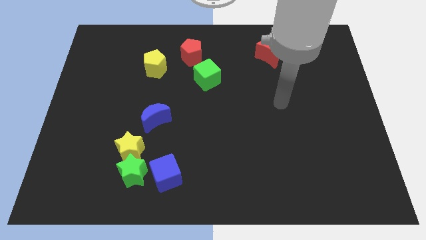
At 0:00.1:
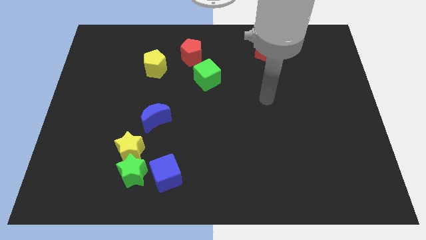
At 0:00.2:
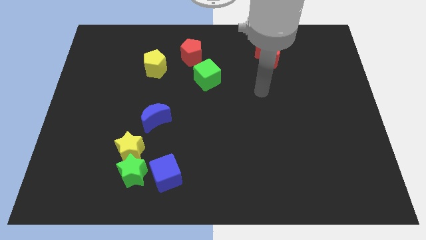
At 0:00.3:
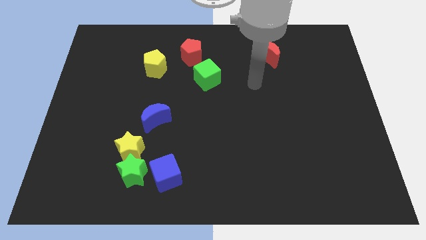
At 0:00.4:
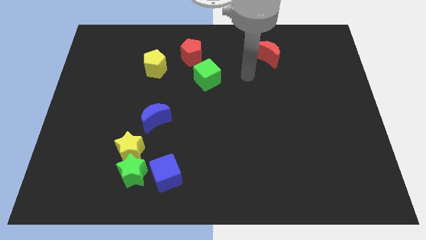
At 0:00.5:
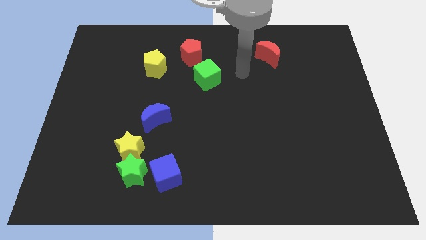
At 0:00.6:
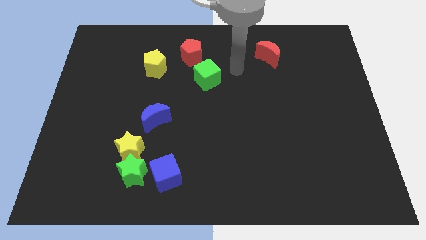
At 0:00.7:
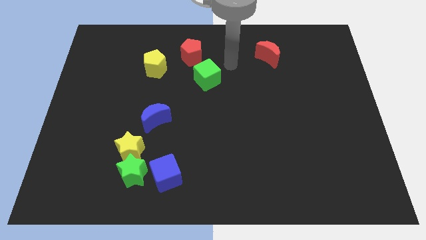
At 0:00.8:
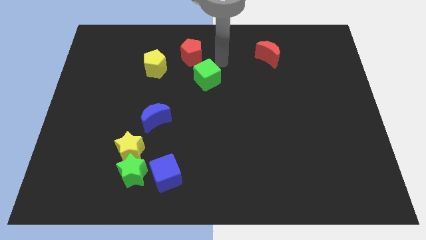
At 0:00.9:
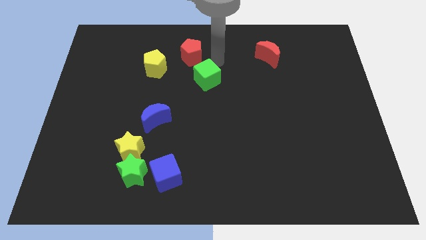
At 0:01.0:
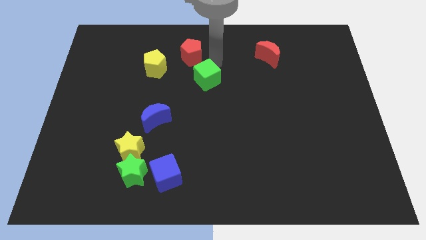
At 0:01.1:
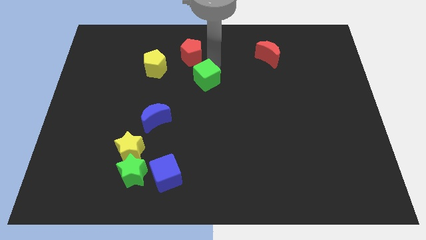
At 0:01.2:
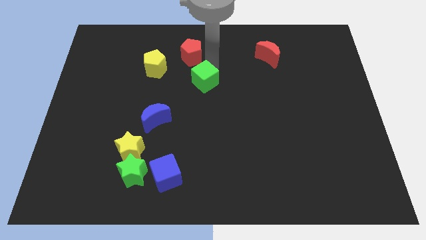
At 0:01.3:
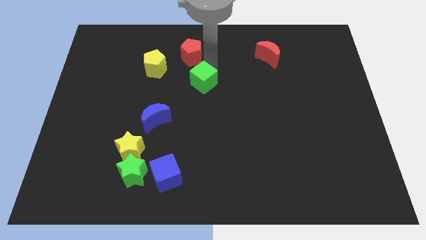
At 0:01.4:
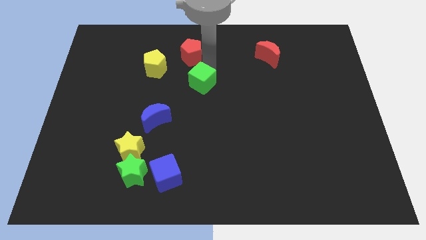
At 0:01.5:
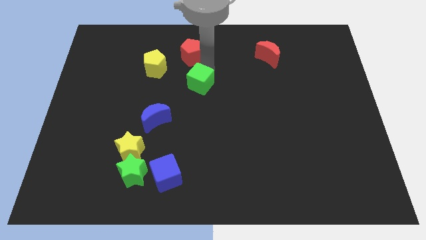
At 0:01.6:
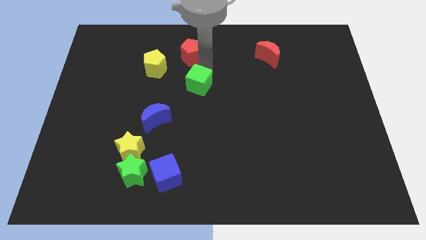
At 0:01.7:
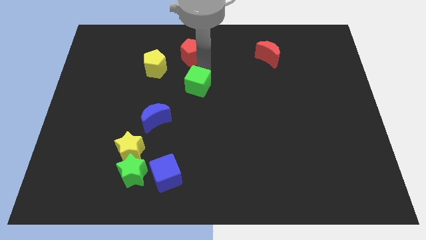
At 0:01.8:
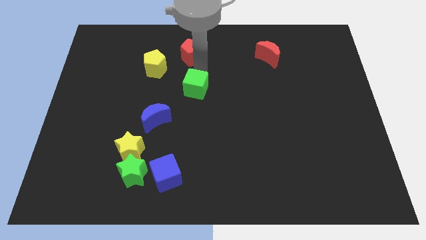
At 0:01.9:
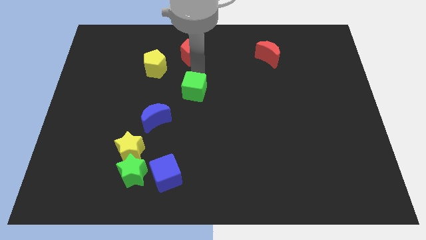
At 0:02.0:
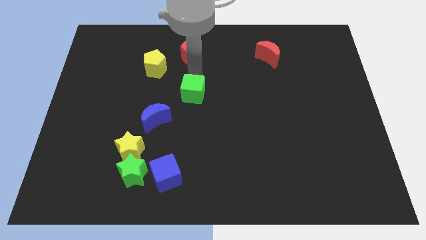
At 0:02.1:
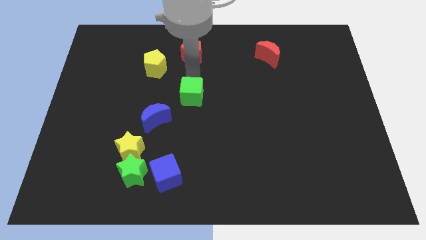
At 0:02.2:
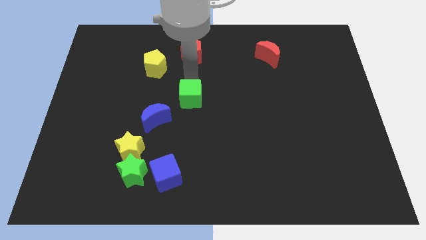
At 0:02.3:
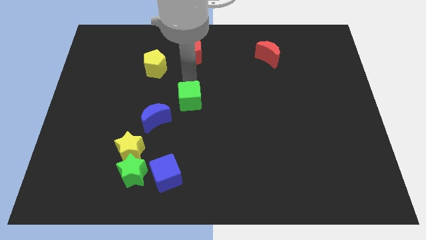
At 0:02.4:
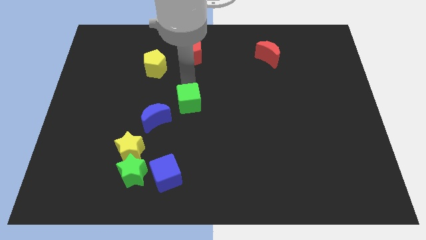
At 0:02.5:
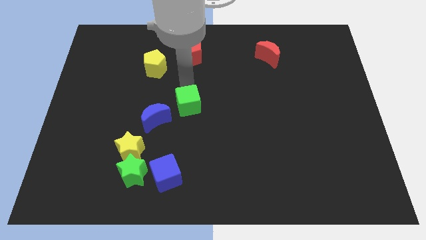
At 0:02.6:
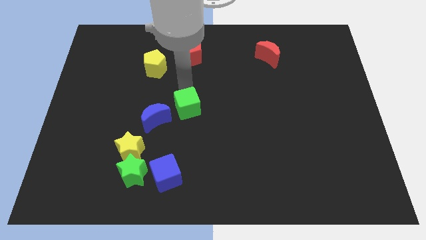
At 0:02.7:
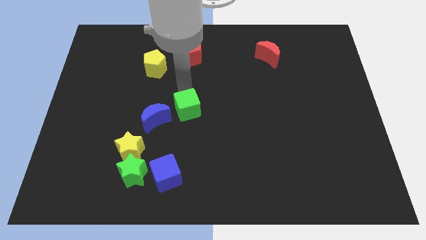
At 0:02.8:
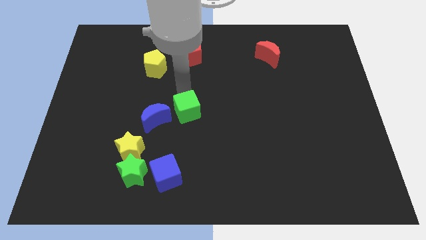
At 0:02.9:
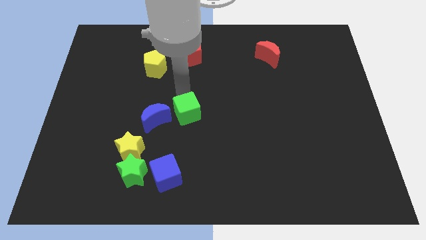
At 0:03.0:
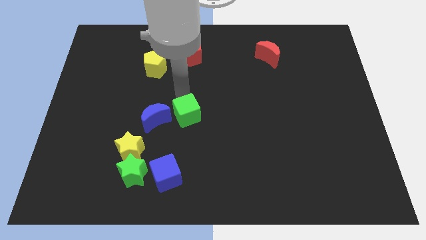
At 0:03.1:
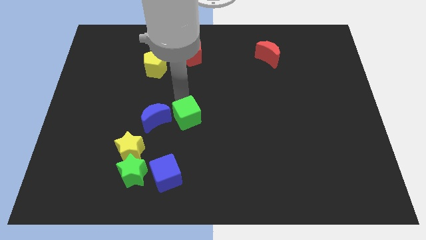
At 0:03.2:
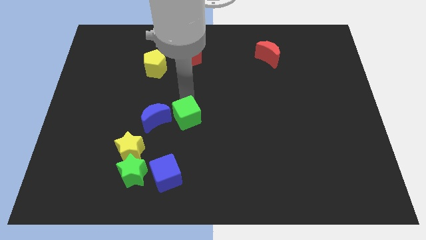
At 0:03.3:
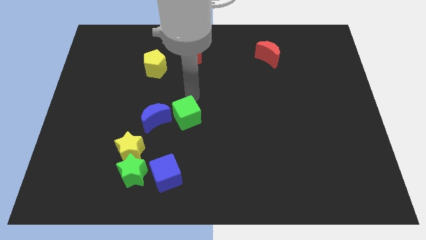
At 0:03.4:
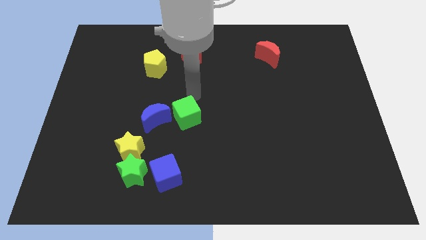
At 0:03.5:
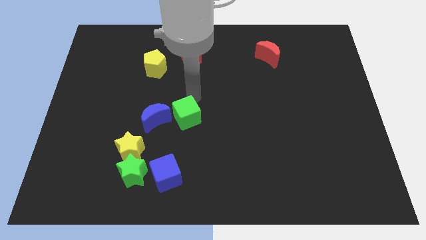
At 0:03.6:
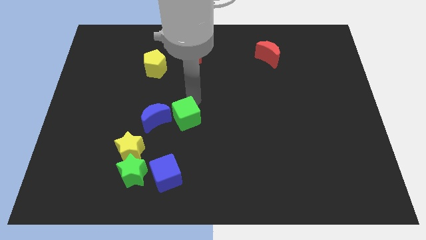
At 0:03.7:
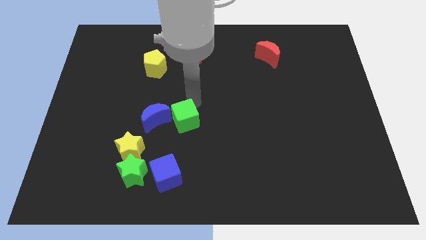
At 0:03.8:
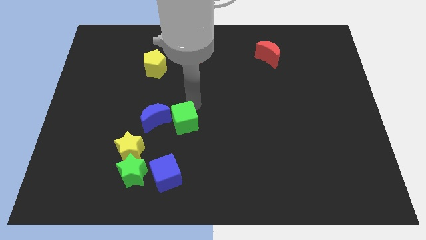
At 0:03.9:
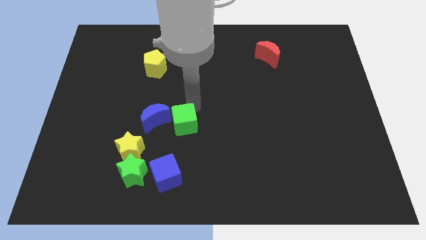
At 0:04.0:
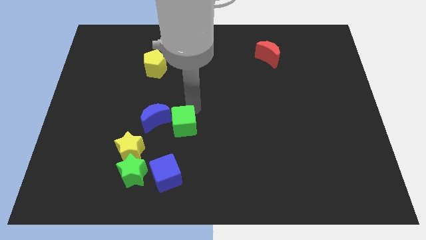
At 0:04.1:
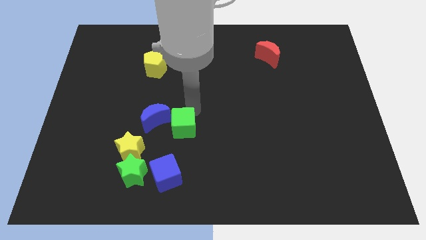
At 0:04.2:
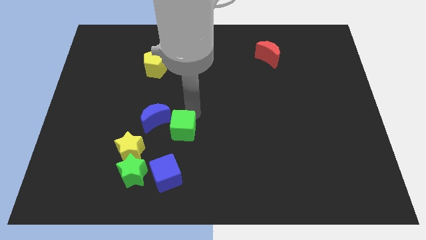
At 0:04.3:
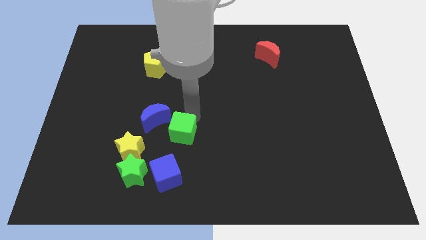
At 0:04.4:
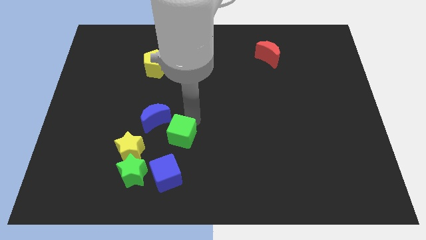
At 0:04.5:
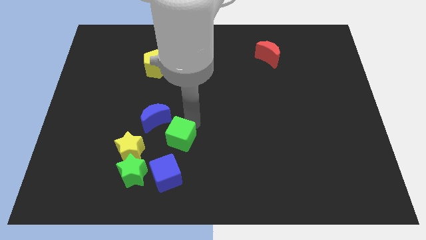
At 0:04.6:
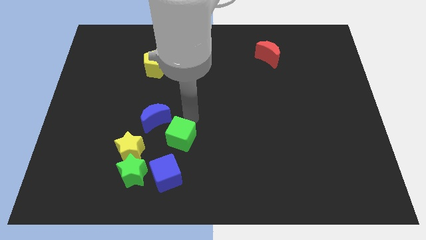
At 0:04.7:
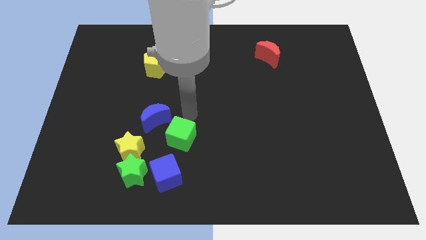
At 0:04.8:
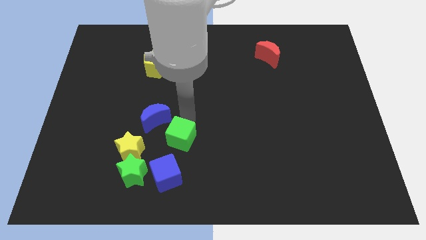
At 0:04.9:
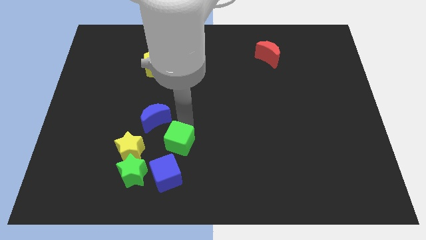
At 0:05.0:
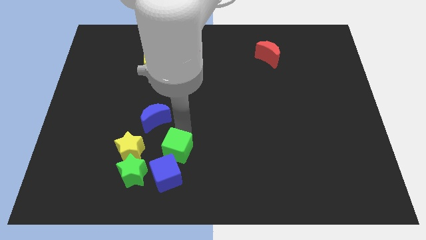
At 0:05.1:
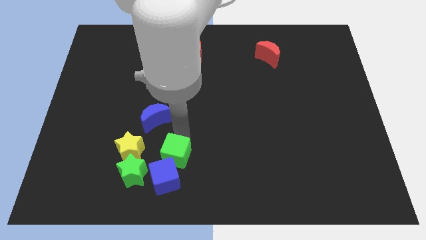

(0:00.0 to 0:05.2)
slide the green cube close to the blue cube

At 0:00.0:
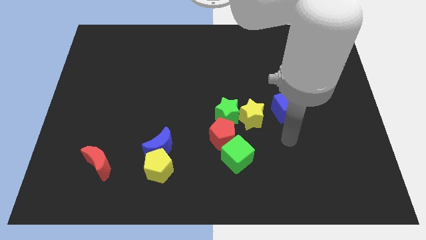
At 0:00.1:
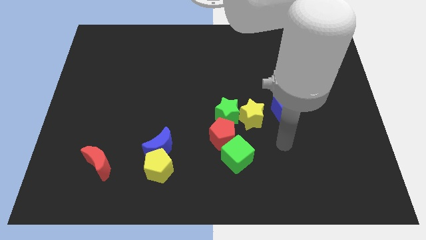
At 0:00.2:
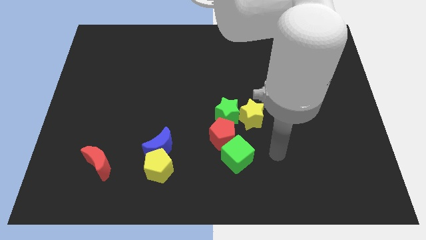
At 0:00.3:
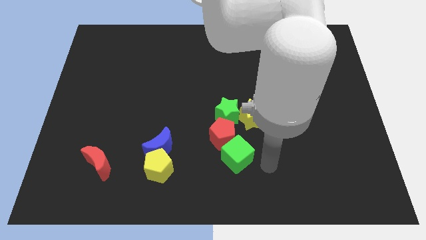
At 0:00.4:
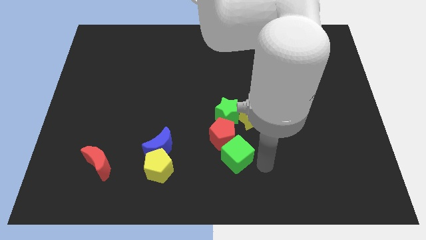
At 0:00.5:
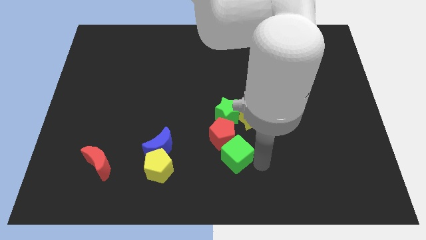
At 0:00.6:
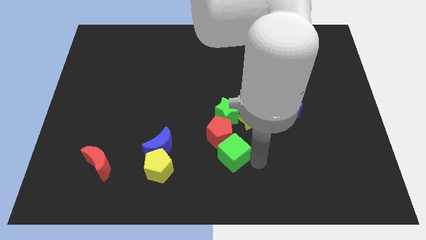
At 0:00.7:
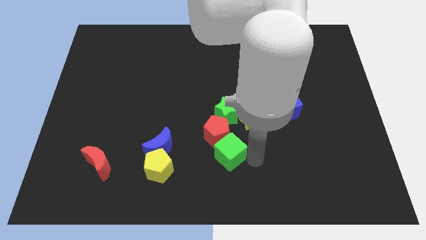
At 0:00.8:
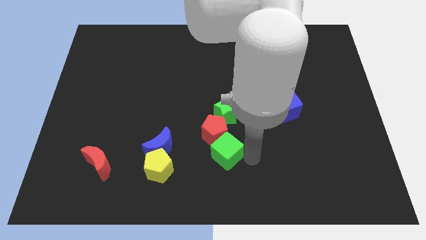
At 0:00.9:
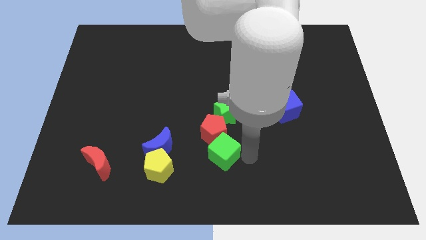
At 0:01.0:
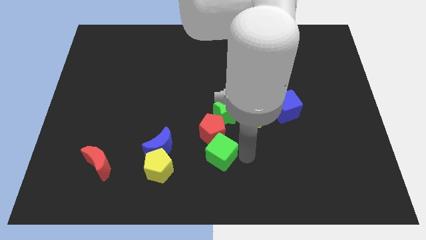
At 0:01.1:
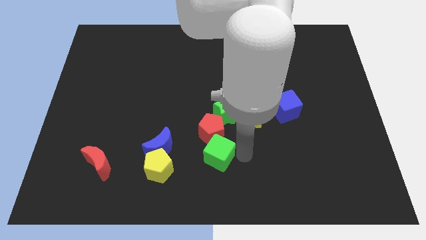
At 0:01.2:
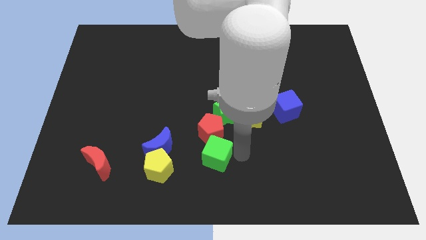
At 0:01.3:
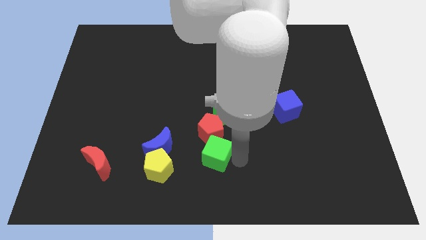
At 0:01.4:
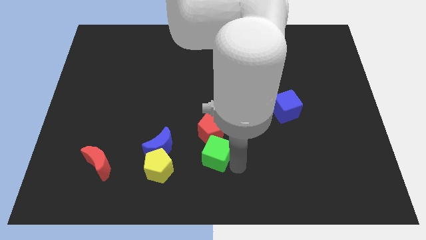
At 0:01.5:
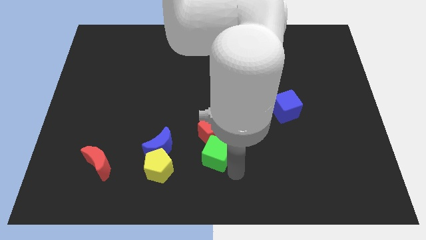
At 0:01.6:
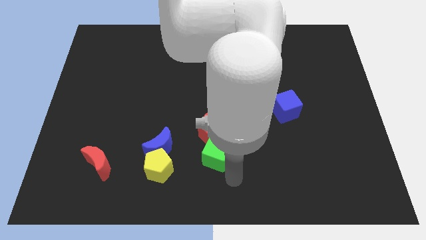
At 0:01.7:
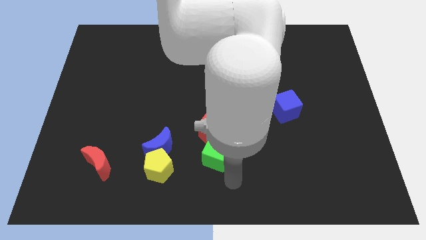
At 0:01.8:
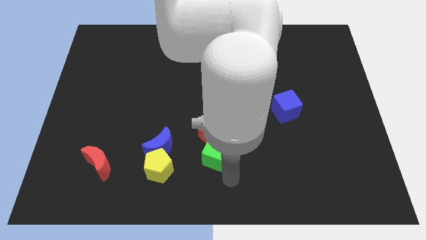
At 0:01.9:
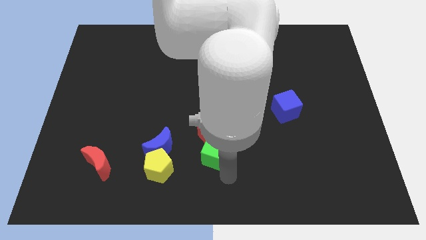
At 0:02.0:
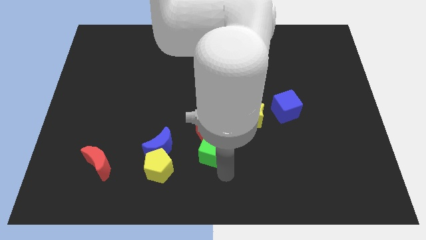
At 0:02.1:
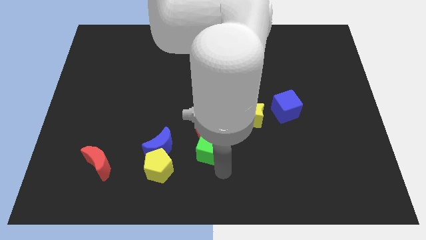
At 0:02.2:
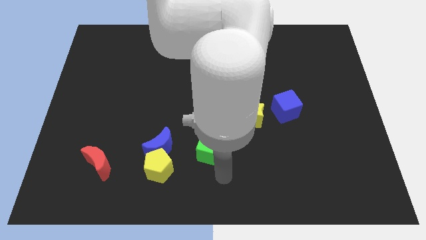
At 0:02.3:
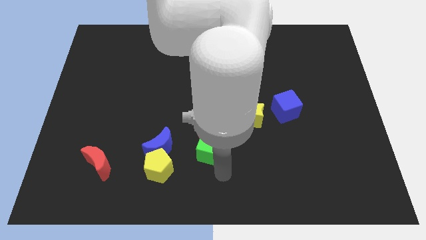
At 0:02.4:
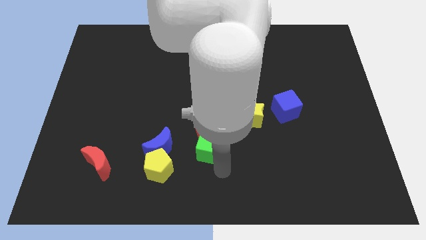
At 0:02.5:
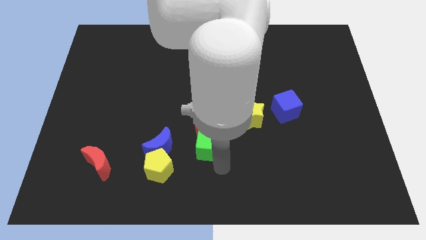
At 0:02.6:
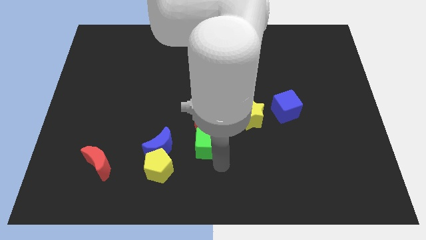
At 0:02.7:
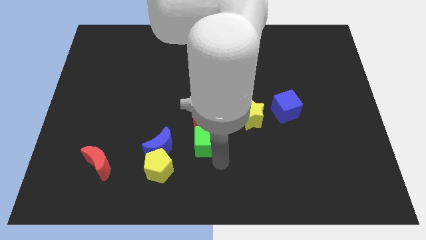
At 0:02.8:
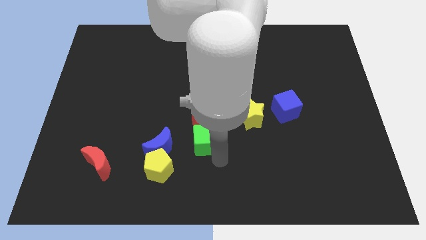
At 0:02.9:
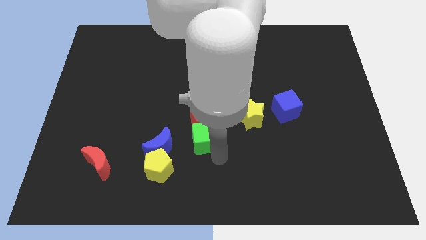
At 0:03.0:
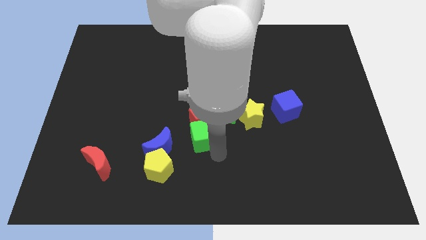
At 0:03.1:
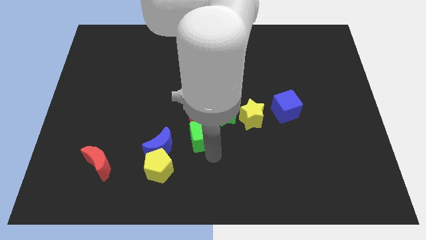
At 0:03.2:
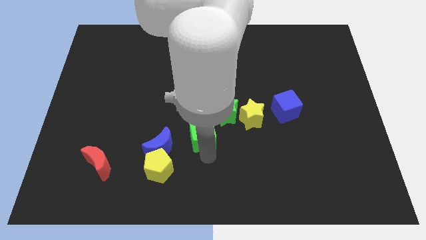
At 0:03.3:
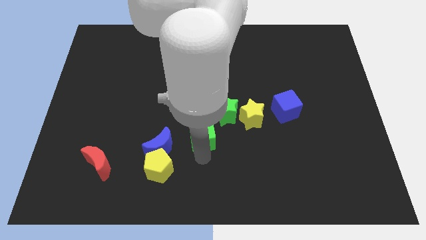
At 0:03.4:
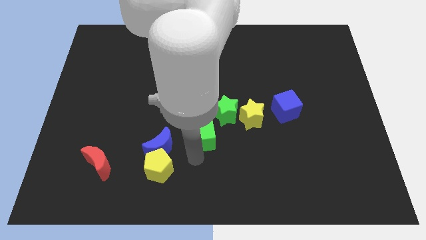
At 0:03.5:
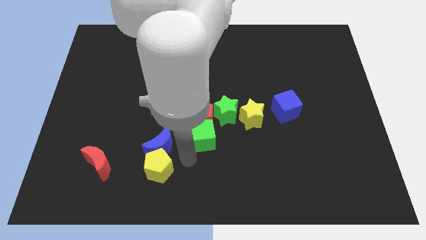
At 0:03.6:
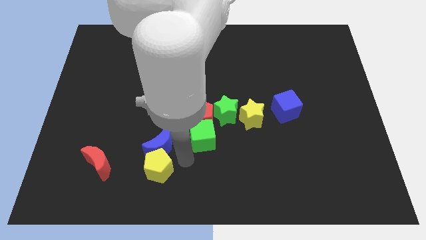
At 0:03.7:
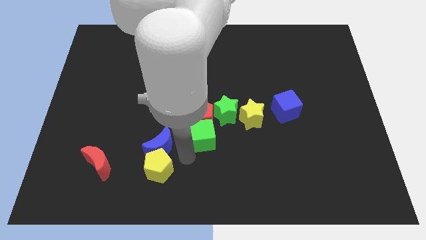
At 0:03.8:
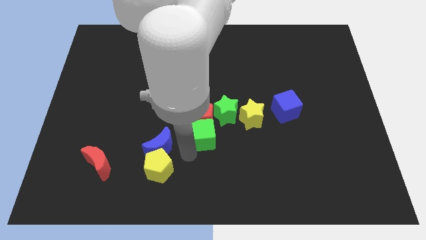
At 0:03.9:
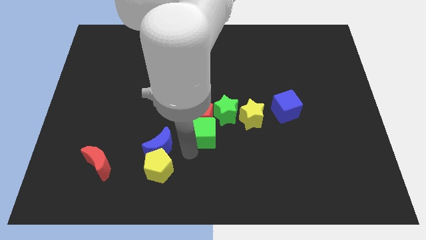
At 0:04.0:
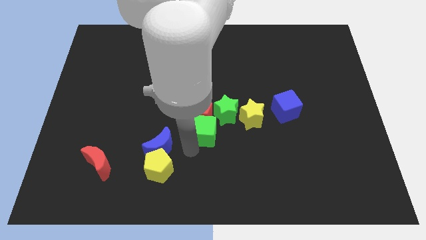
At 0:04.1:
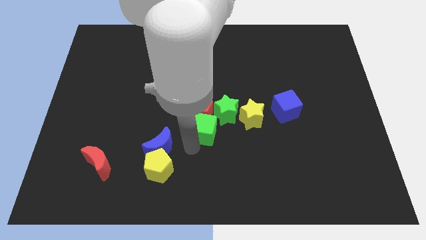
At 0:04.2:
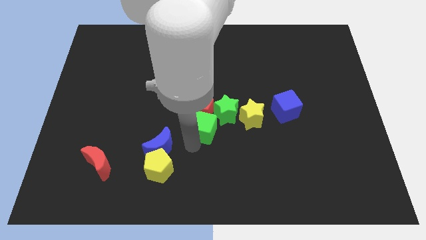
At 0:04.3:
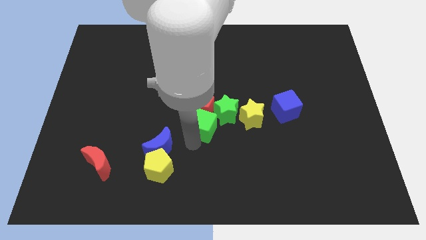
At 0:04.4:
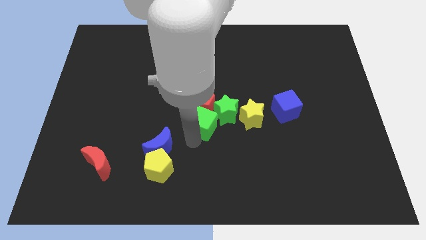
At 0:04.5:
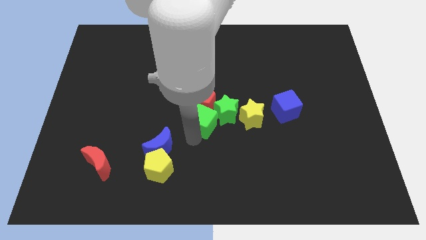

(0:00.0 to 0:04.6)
put the green cube close to the green star
